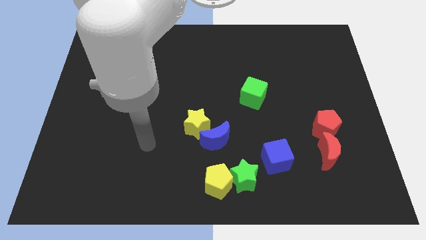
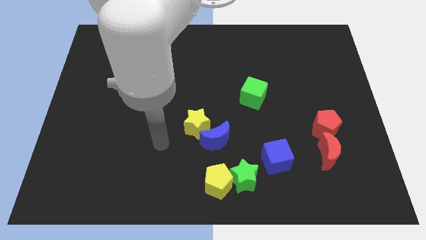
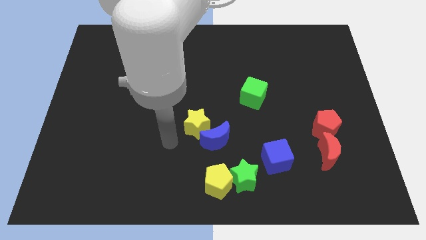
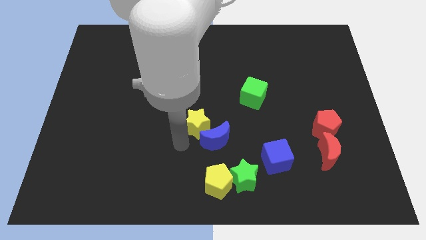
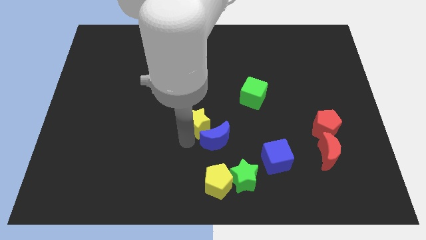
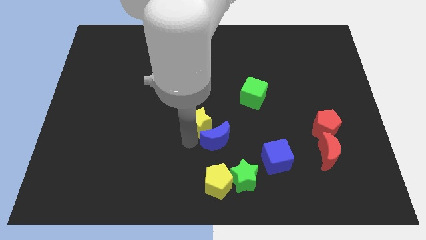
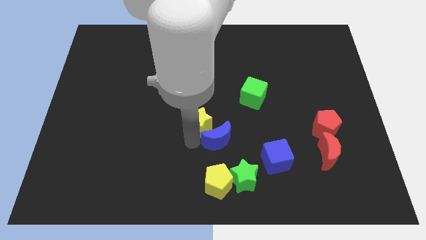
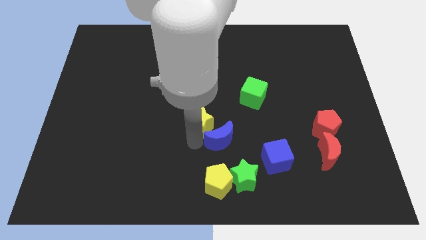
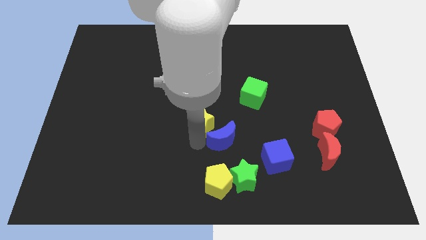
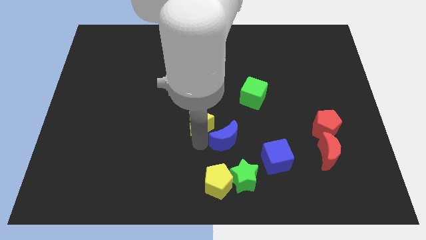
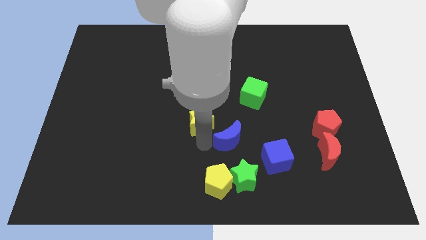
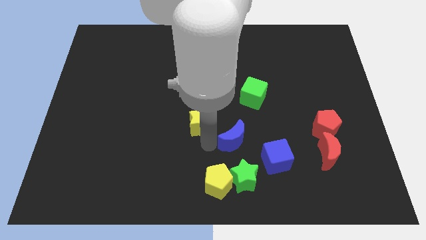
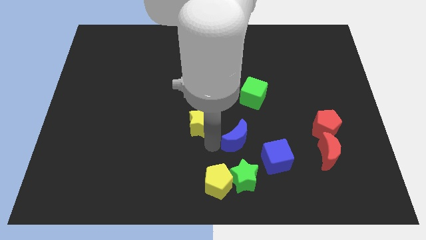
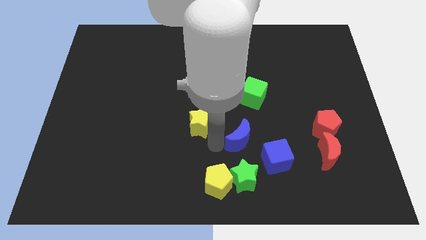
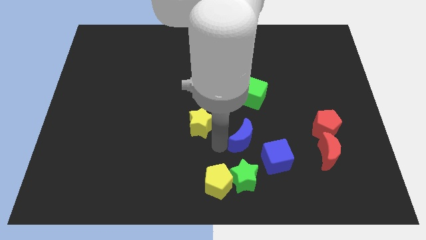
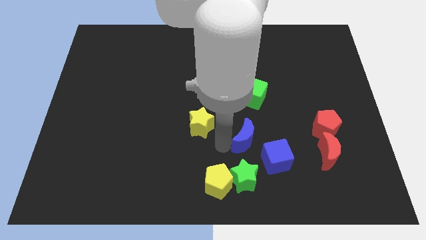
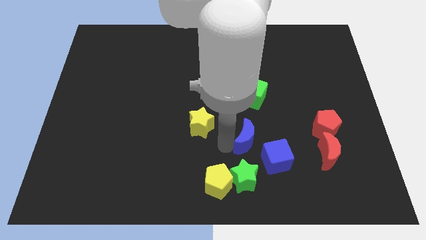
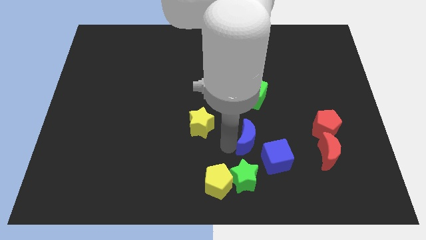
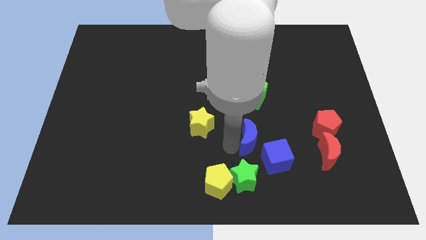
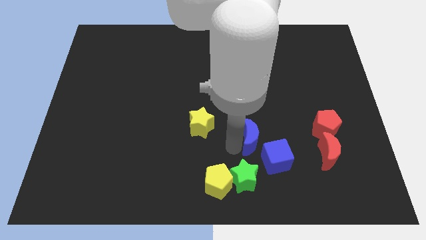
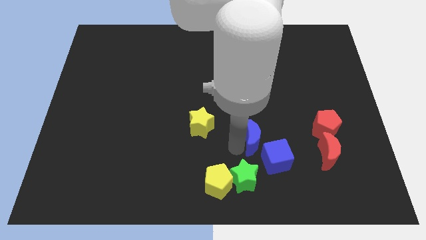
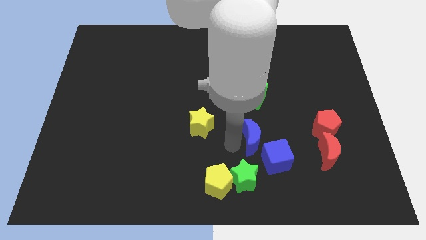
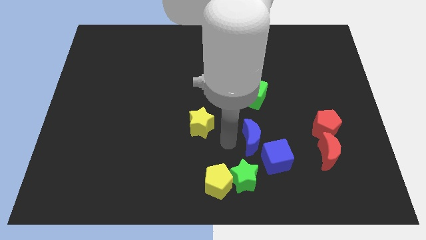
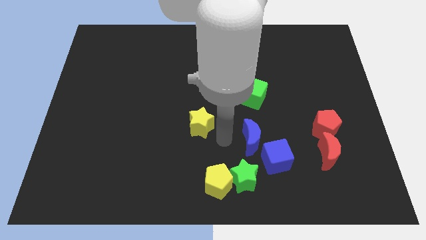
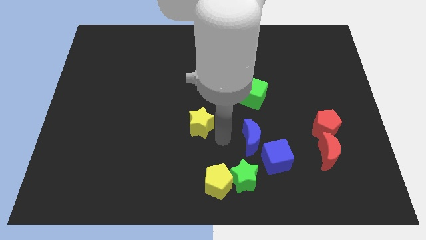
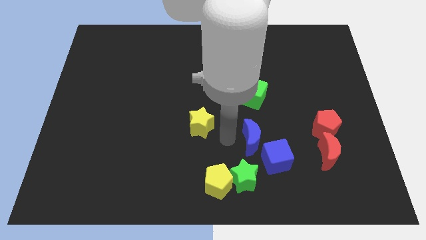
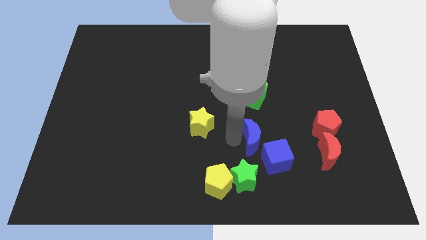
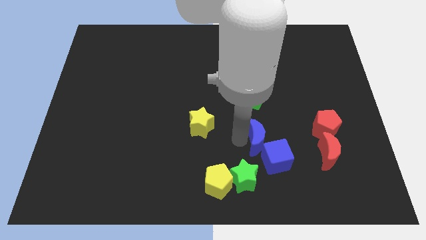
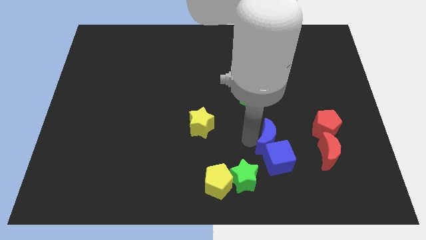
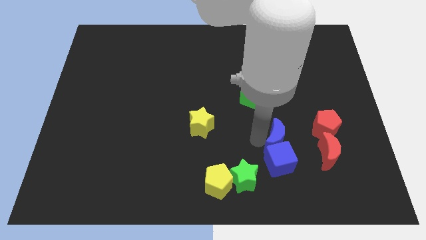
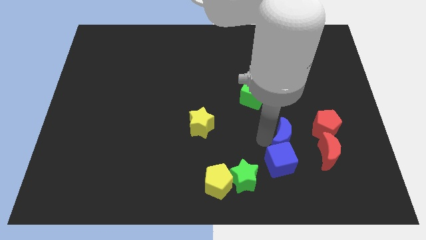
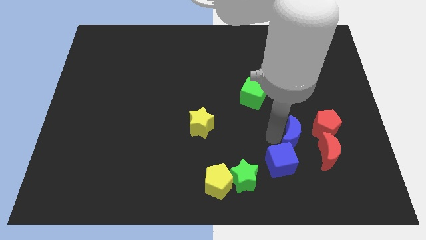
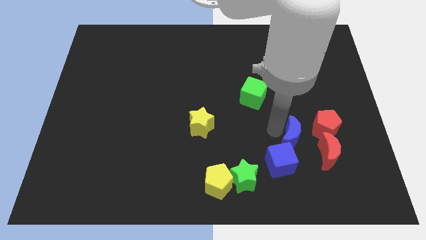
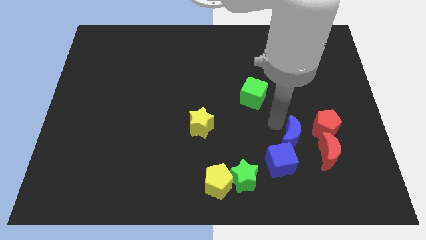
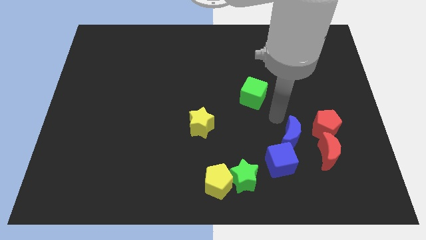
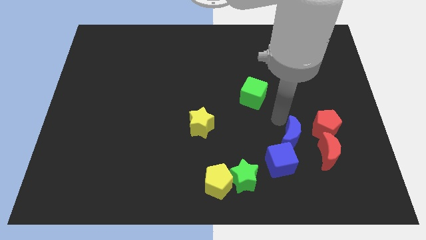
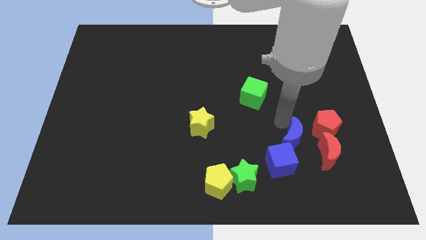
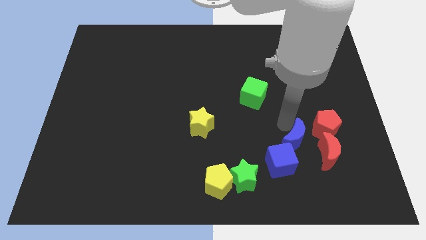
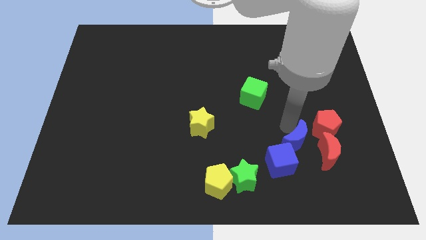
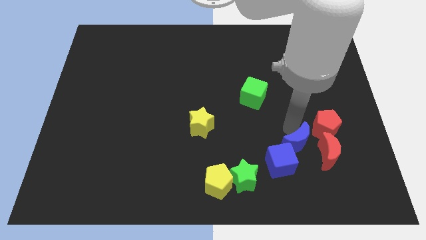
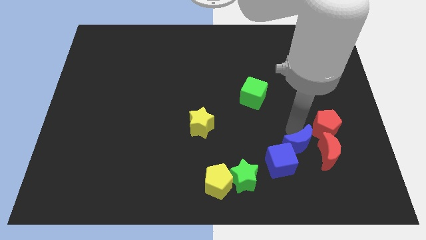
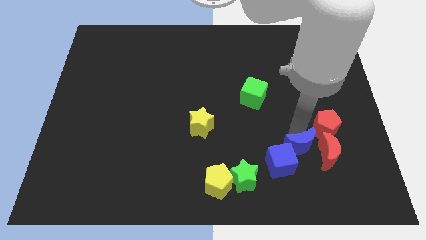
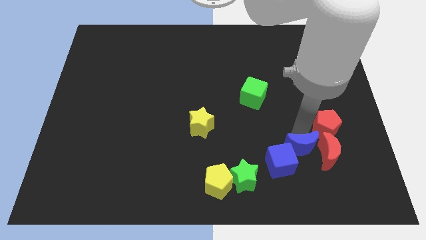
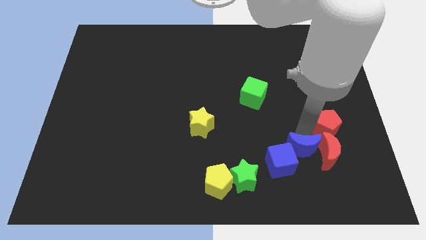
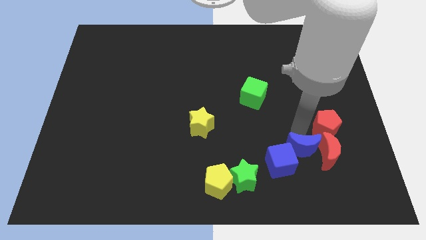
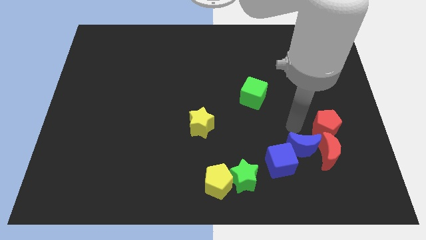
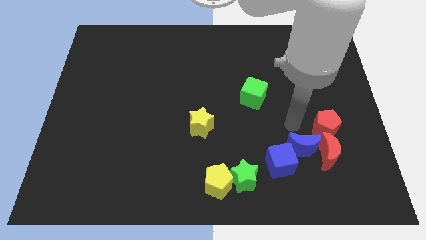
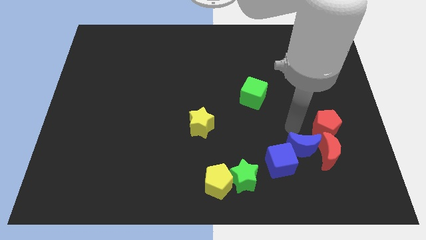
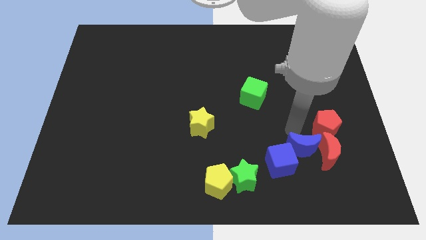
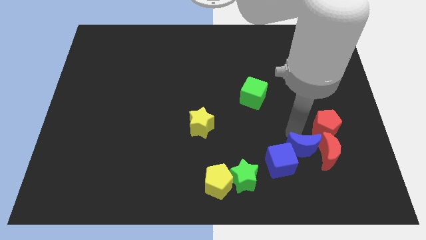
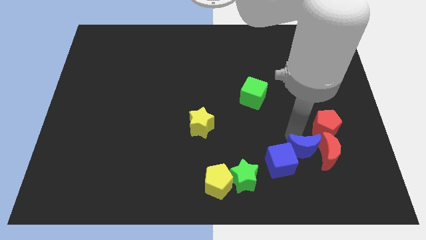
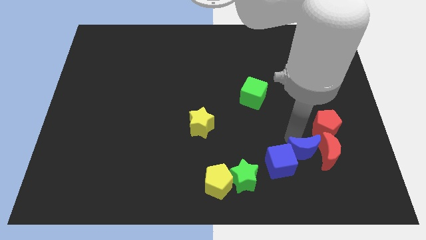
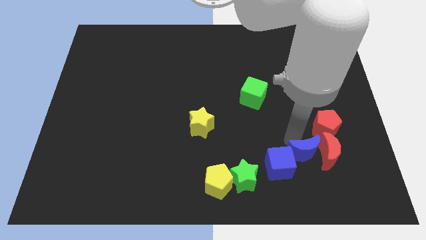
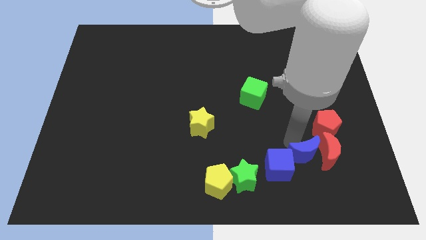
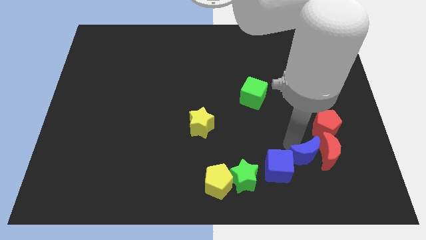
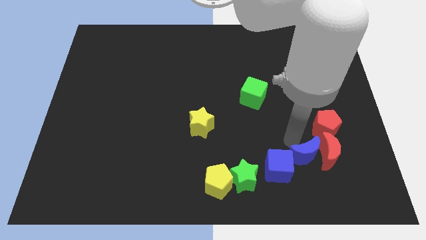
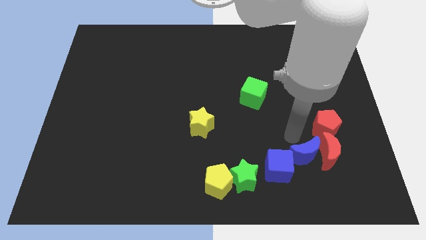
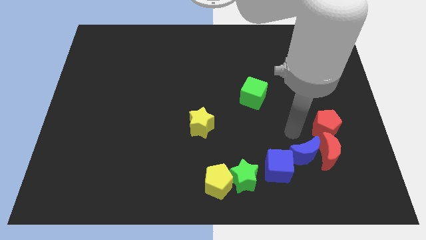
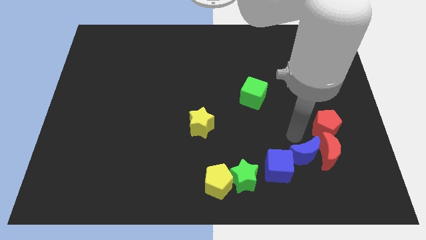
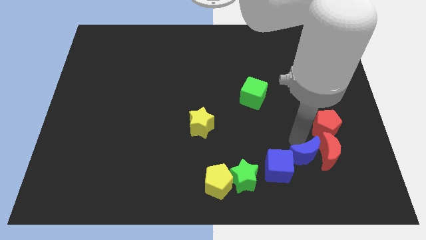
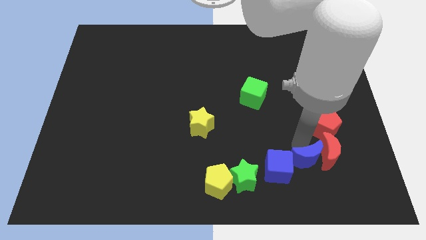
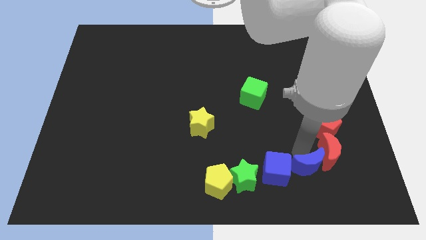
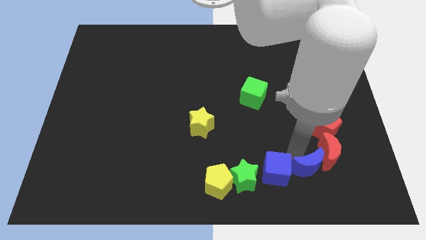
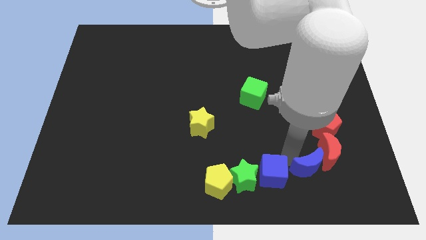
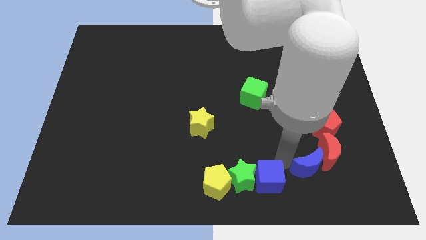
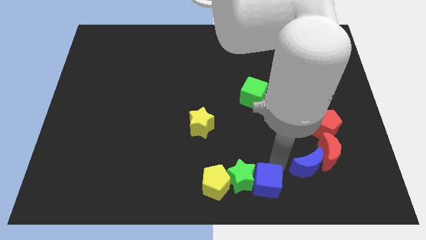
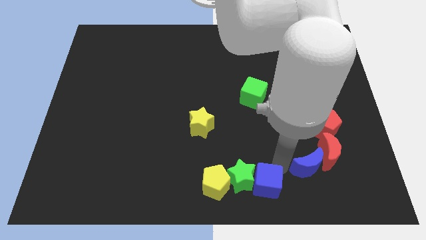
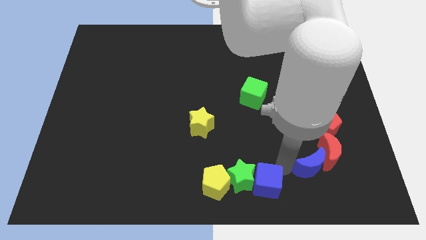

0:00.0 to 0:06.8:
put the blue moon to the bottom of the red pentagon

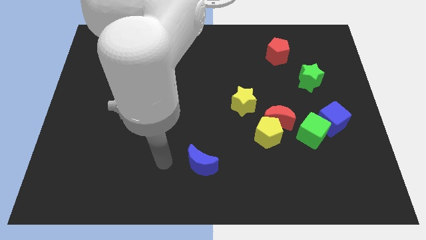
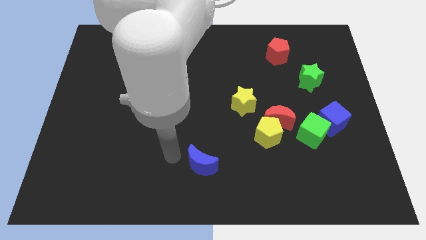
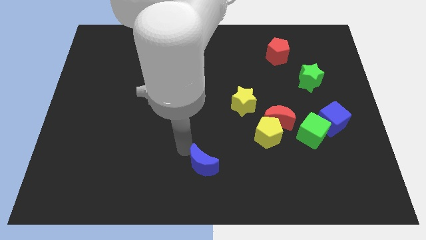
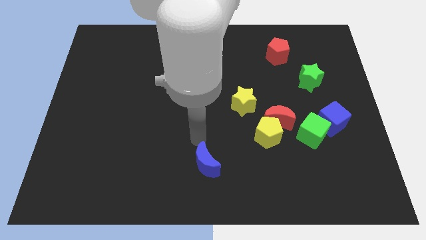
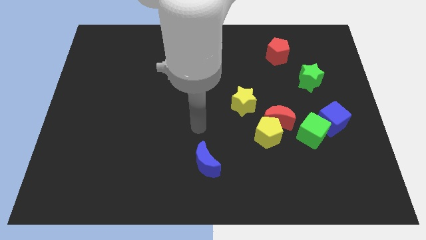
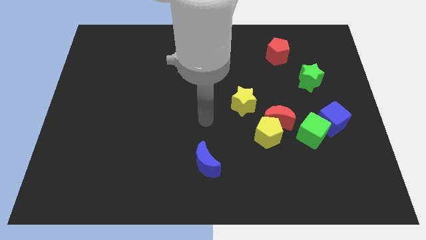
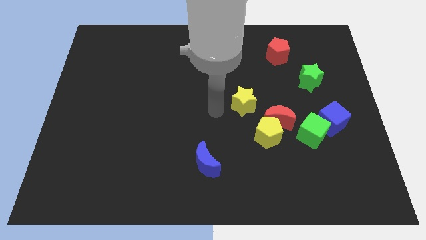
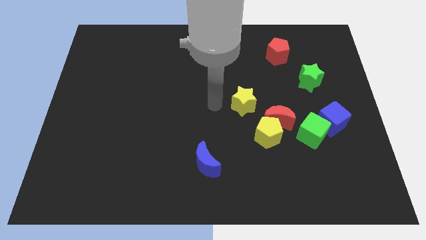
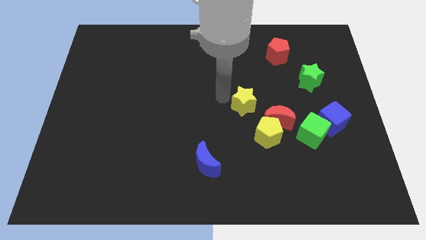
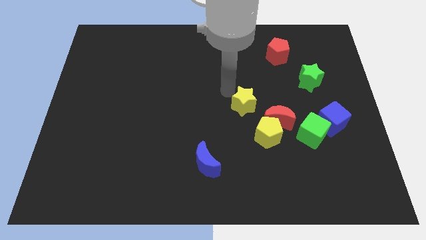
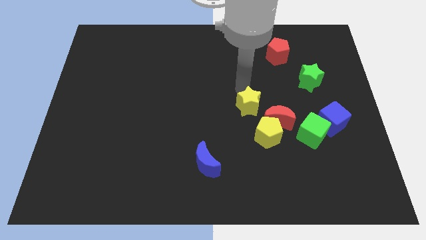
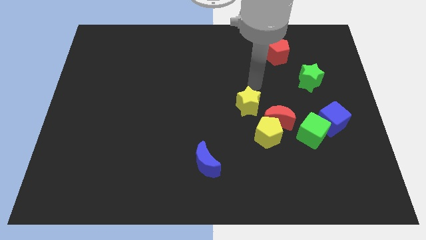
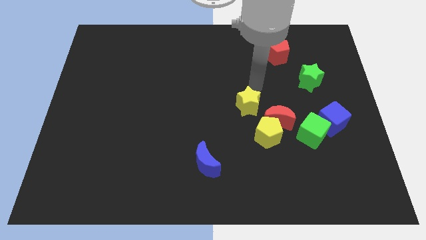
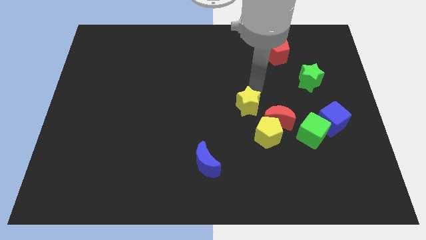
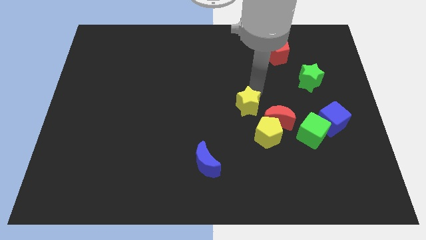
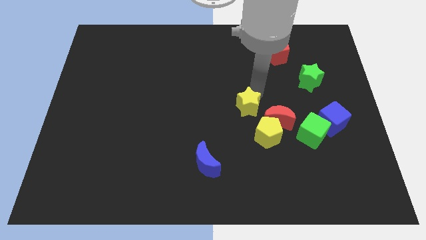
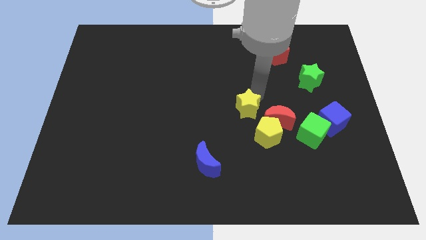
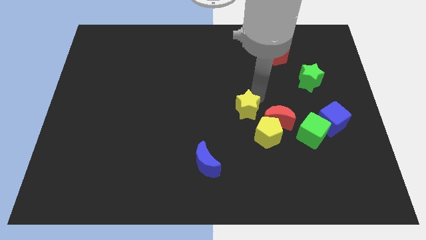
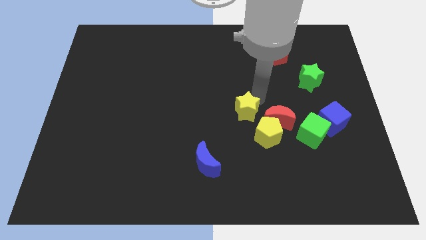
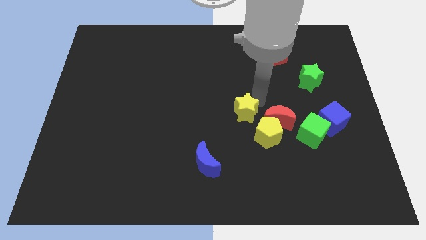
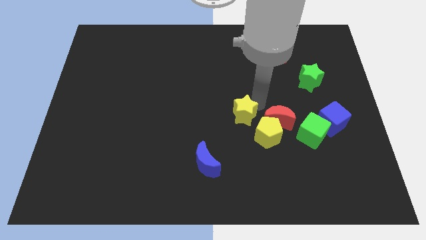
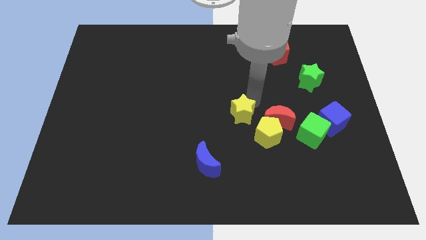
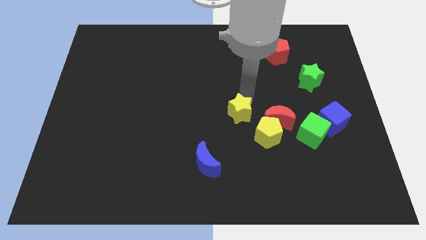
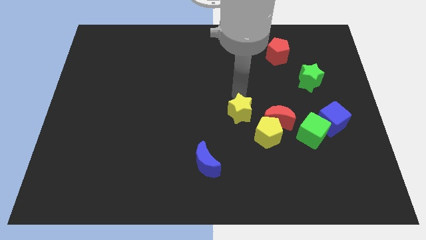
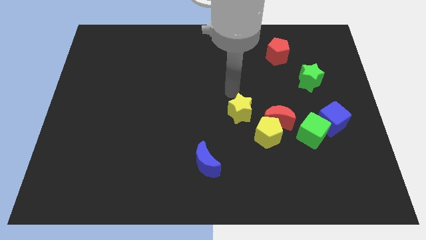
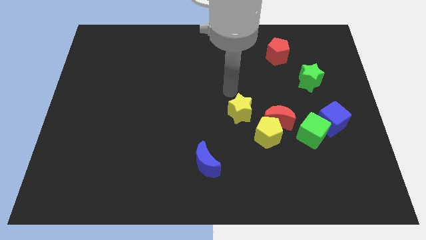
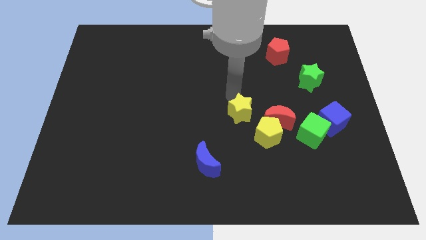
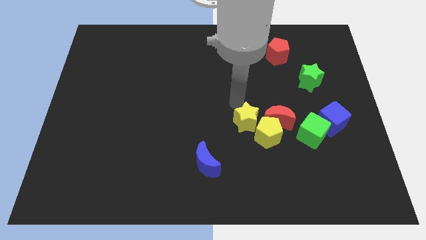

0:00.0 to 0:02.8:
move the yellow star diagonally down and to the left of the red moon
